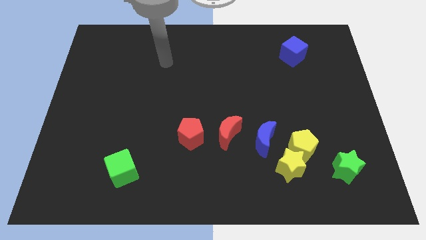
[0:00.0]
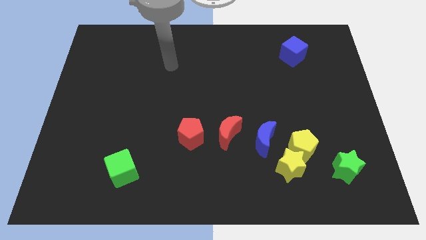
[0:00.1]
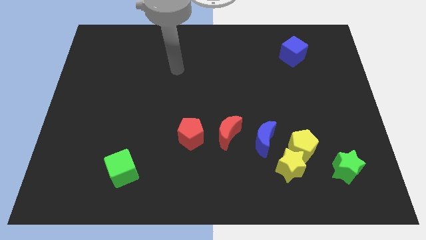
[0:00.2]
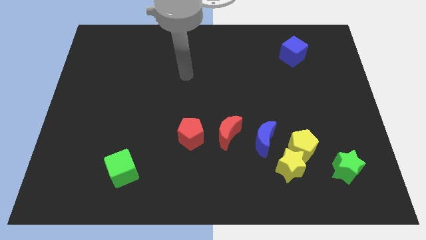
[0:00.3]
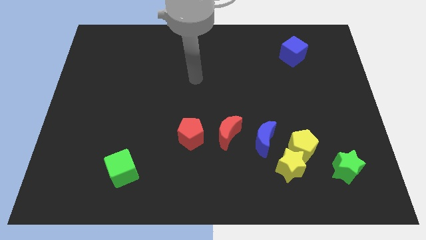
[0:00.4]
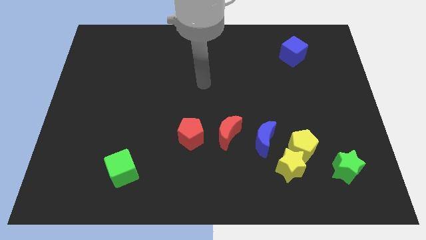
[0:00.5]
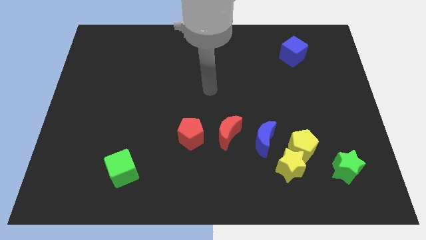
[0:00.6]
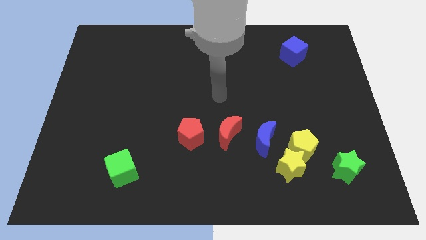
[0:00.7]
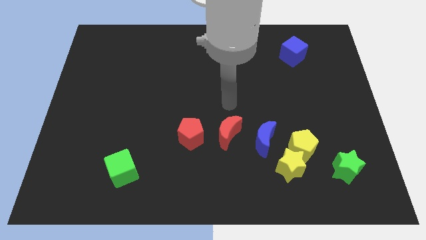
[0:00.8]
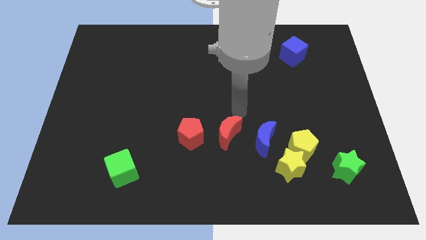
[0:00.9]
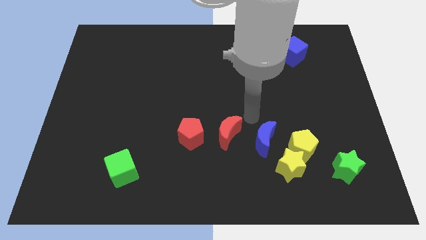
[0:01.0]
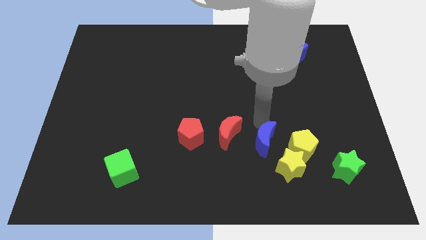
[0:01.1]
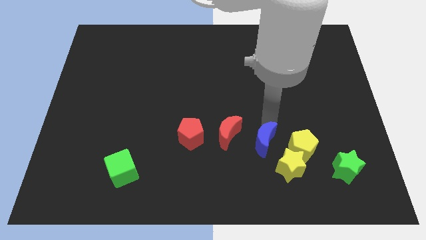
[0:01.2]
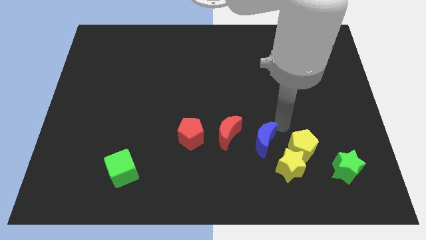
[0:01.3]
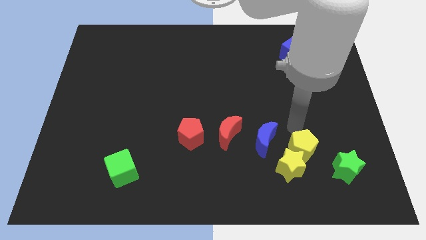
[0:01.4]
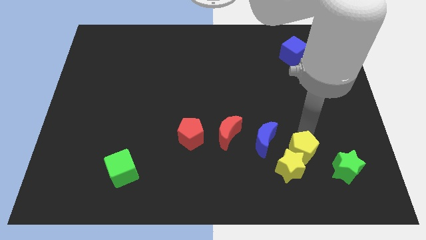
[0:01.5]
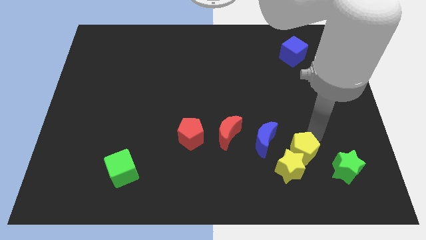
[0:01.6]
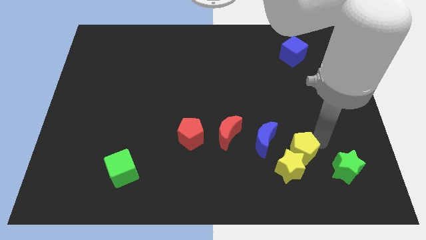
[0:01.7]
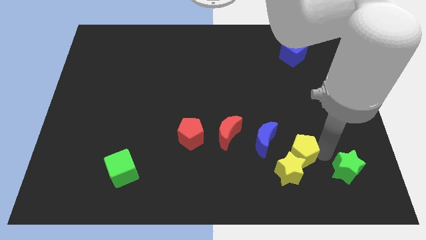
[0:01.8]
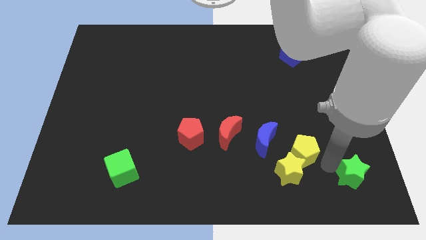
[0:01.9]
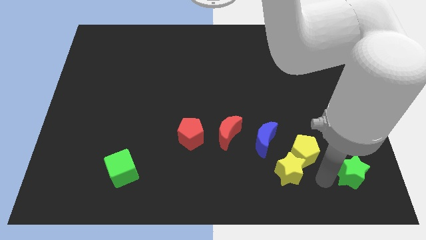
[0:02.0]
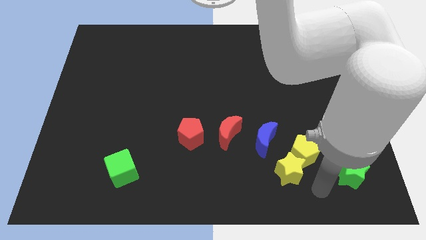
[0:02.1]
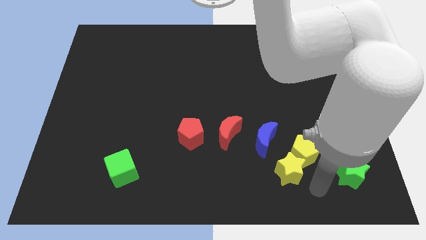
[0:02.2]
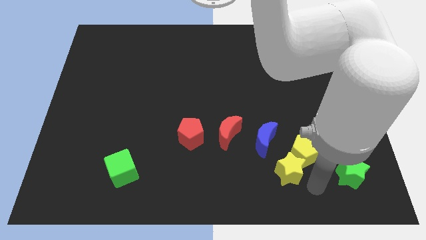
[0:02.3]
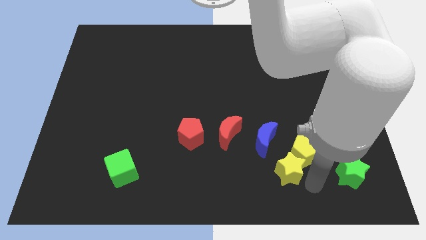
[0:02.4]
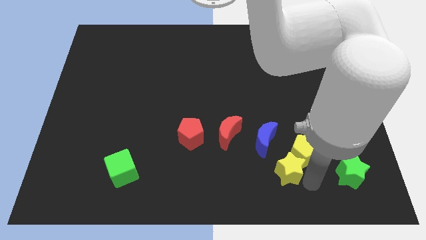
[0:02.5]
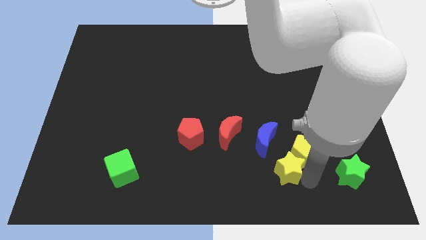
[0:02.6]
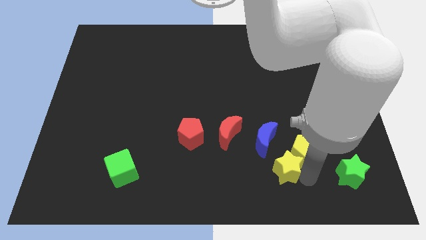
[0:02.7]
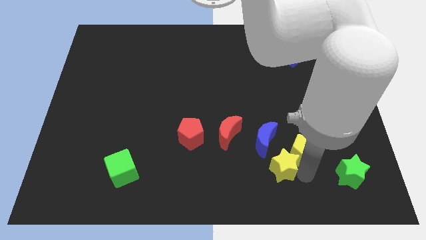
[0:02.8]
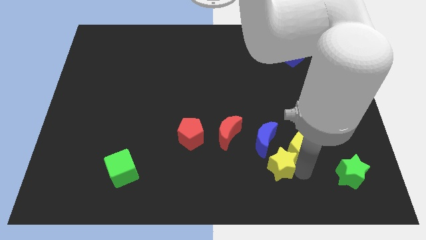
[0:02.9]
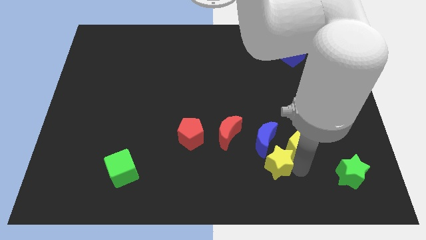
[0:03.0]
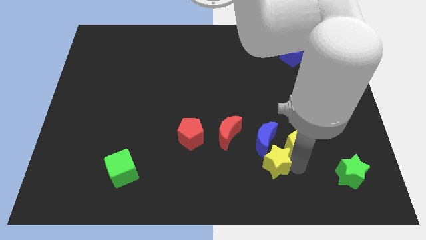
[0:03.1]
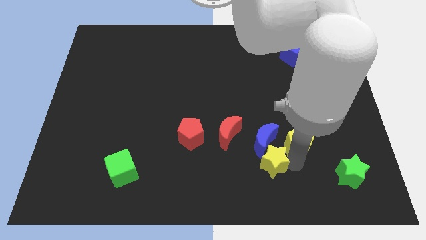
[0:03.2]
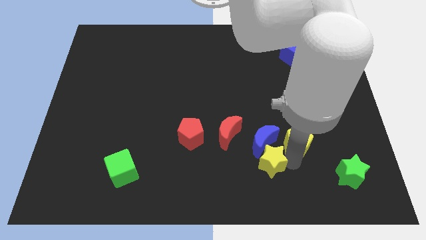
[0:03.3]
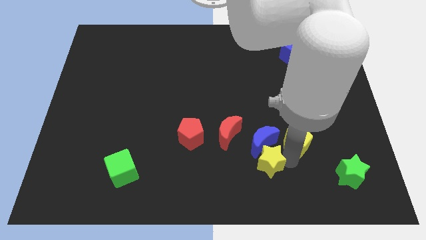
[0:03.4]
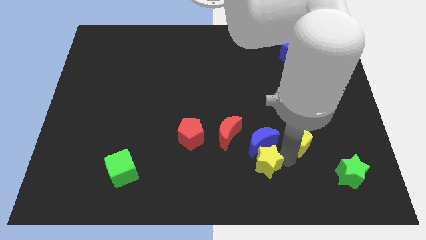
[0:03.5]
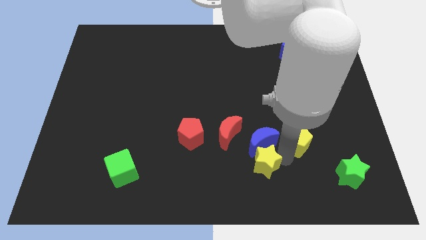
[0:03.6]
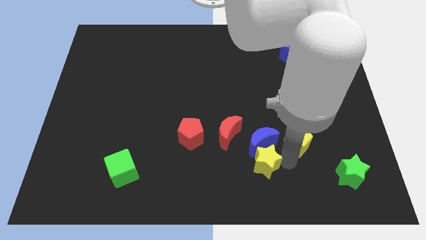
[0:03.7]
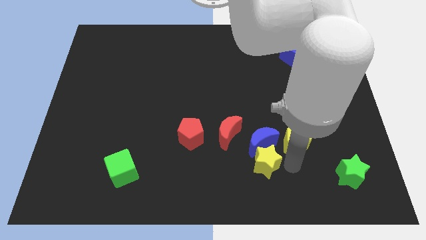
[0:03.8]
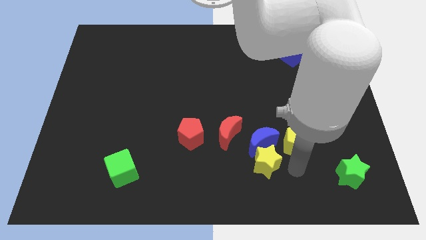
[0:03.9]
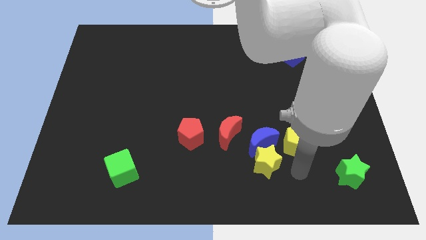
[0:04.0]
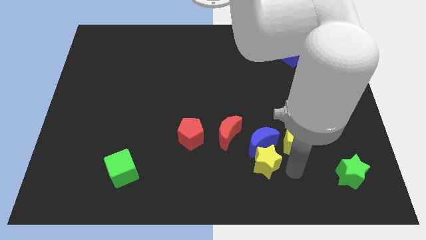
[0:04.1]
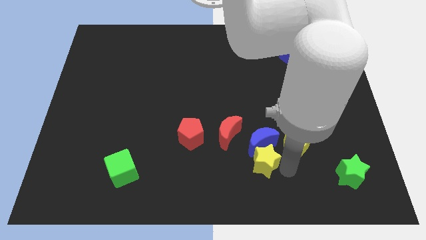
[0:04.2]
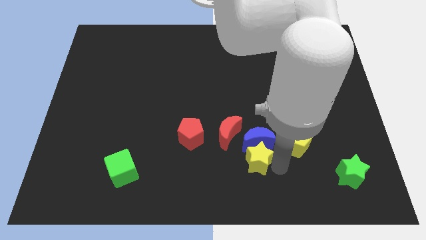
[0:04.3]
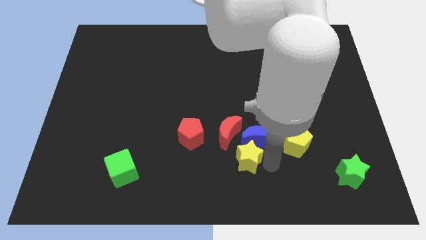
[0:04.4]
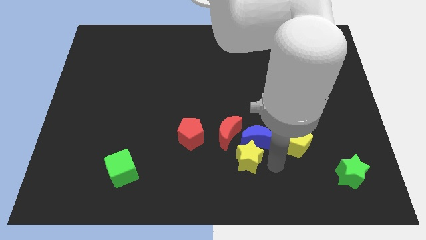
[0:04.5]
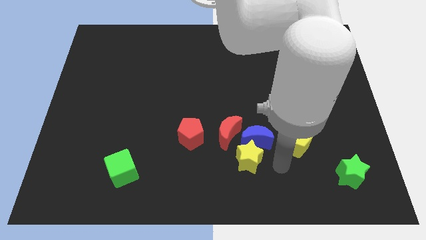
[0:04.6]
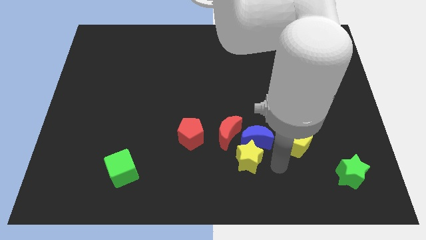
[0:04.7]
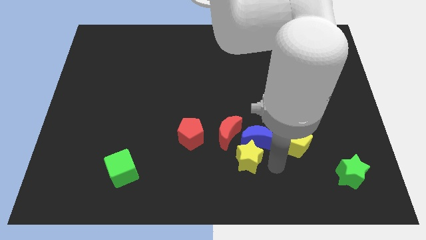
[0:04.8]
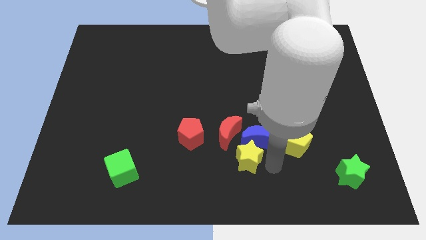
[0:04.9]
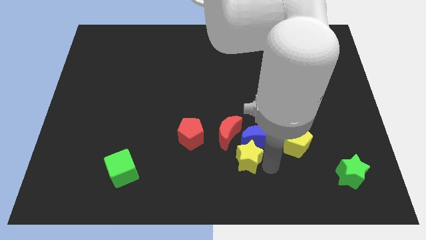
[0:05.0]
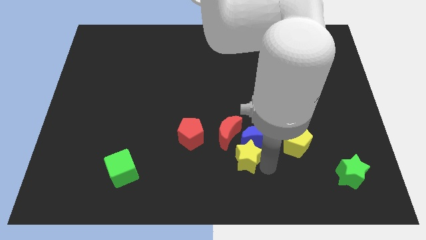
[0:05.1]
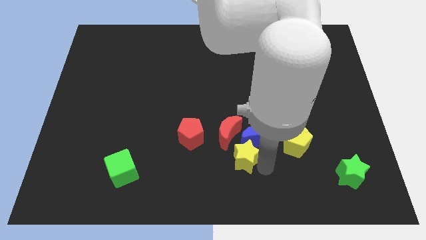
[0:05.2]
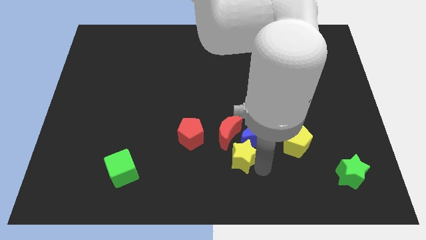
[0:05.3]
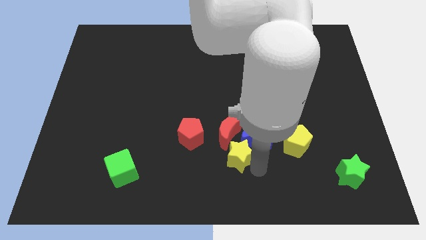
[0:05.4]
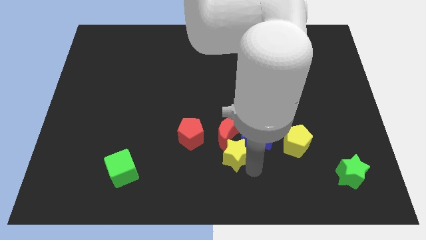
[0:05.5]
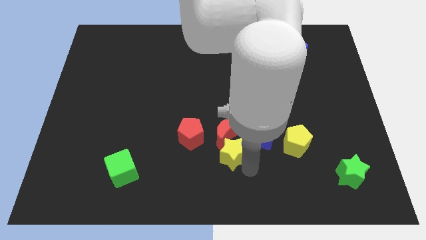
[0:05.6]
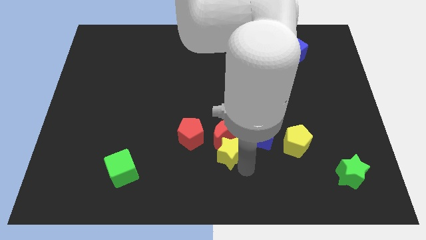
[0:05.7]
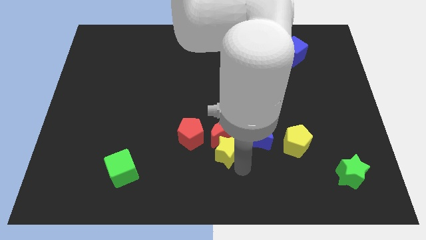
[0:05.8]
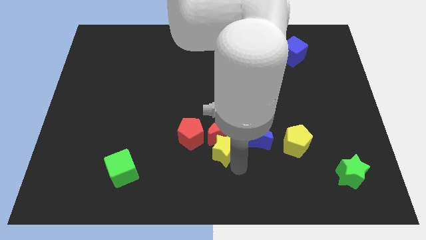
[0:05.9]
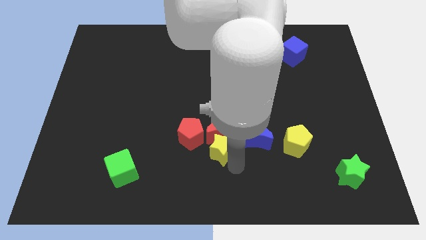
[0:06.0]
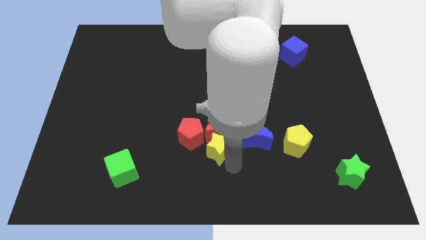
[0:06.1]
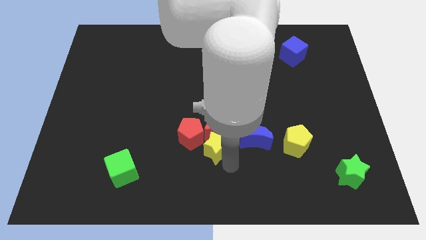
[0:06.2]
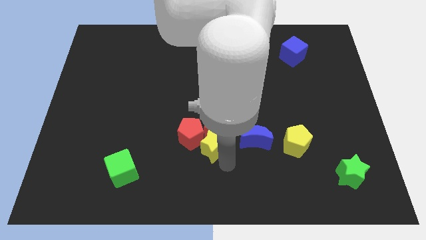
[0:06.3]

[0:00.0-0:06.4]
put the yellow star next to the red pentagon
